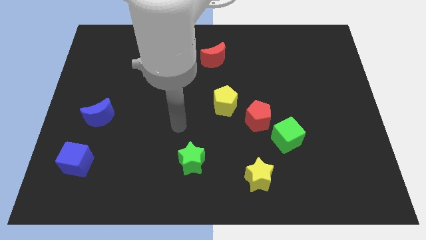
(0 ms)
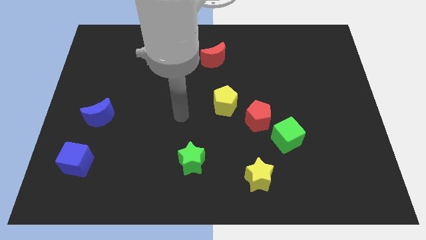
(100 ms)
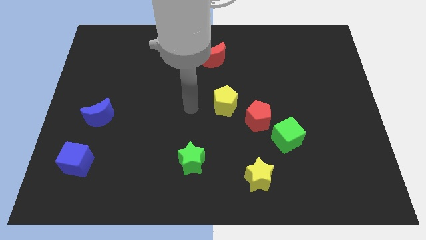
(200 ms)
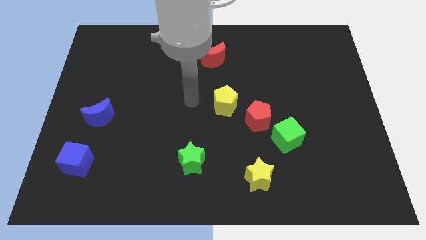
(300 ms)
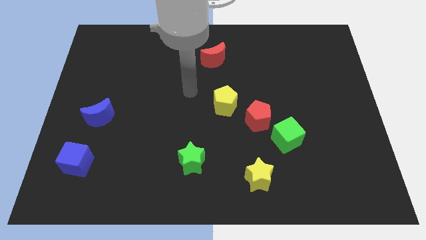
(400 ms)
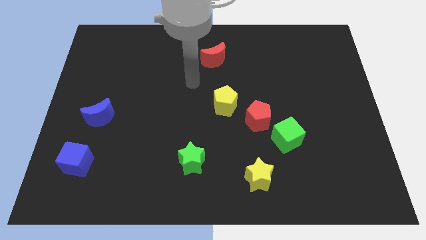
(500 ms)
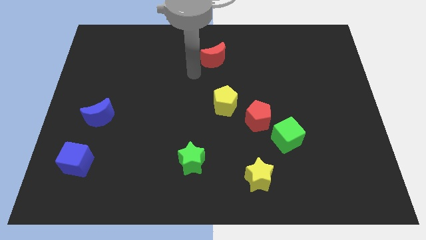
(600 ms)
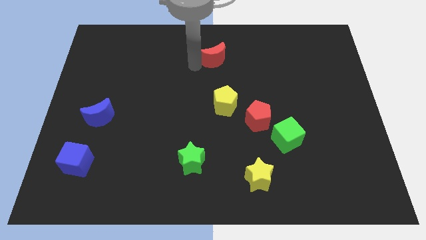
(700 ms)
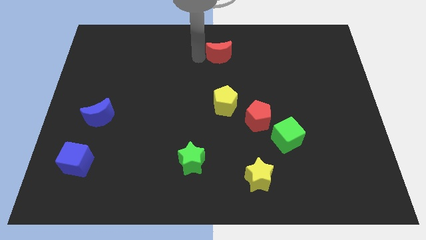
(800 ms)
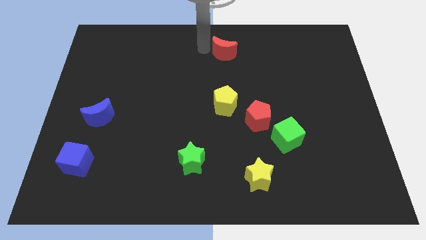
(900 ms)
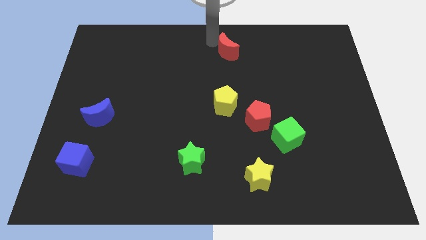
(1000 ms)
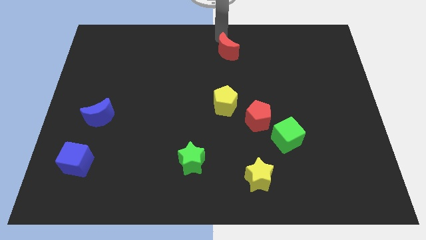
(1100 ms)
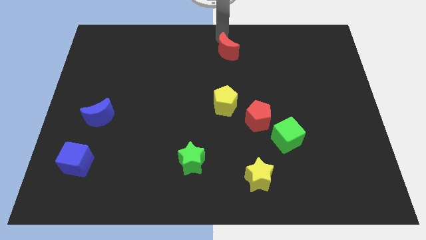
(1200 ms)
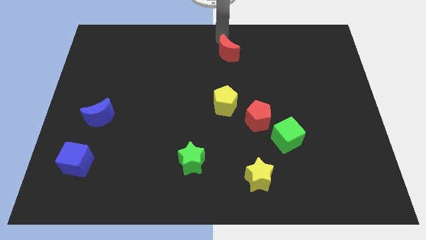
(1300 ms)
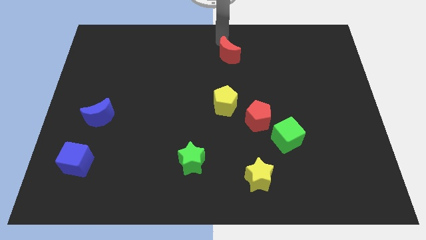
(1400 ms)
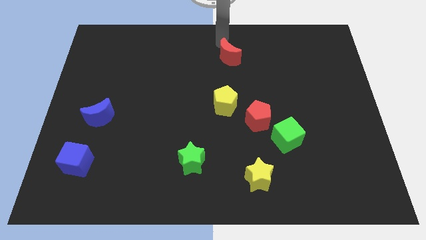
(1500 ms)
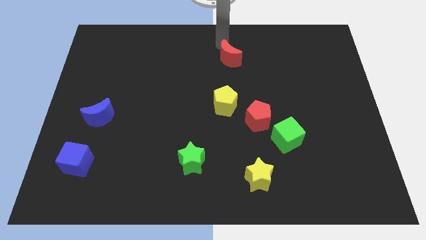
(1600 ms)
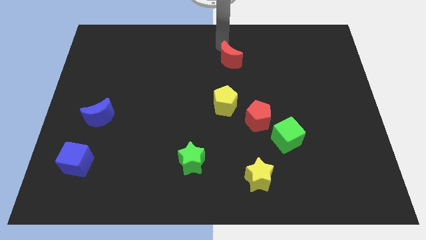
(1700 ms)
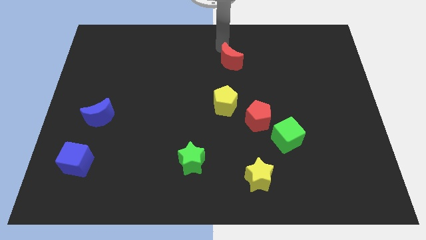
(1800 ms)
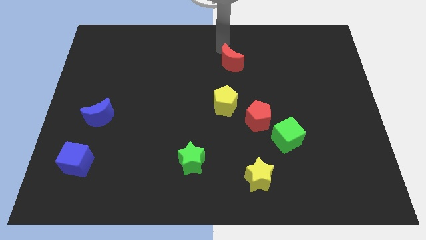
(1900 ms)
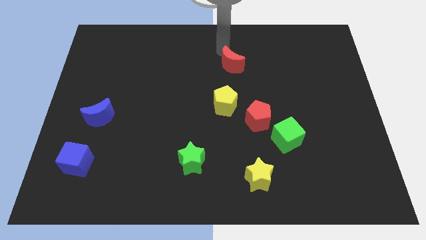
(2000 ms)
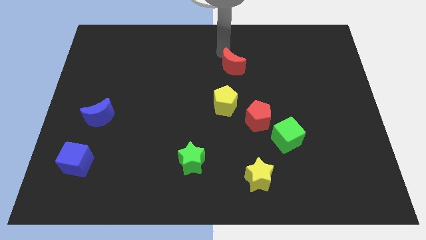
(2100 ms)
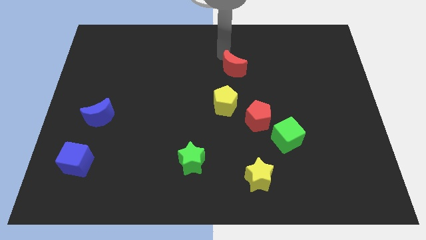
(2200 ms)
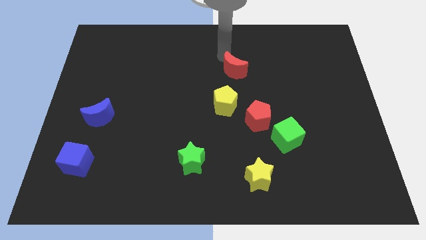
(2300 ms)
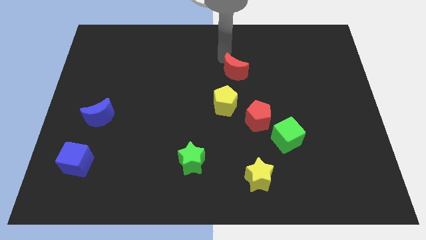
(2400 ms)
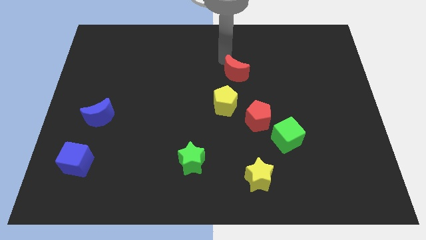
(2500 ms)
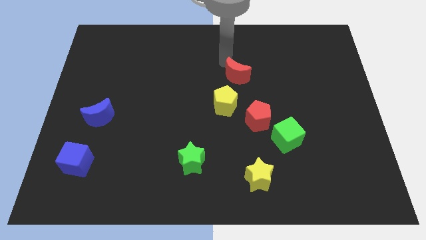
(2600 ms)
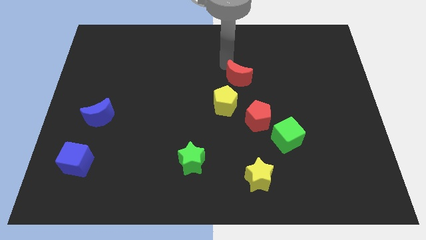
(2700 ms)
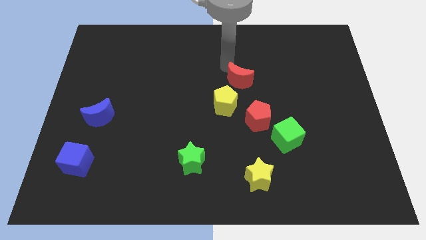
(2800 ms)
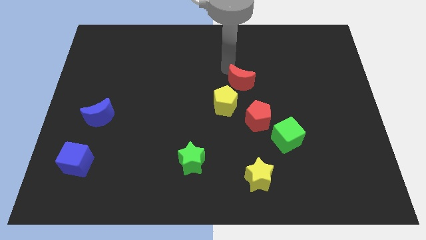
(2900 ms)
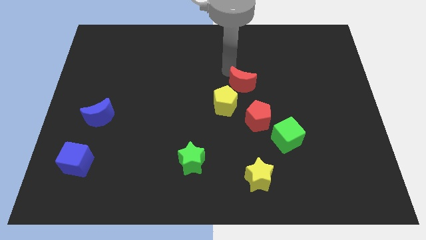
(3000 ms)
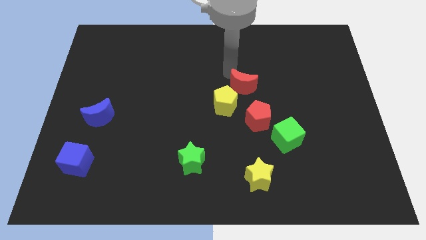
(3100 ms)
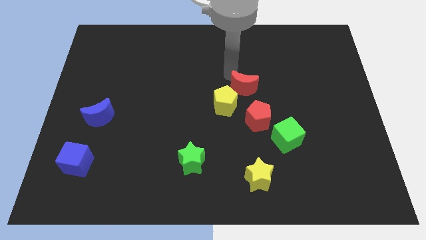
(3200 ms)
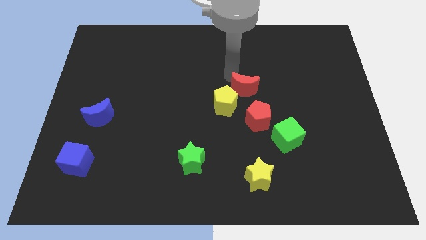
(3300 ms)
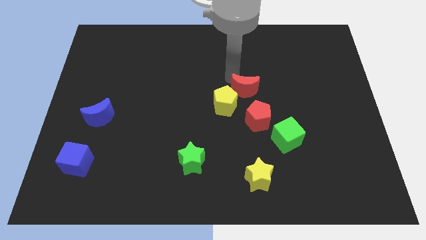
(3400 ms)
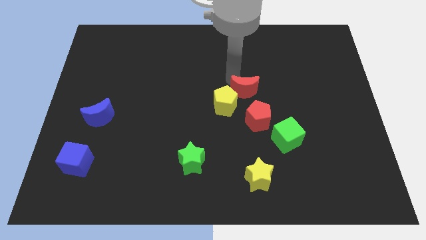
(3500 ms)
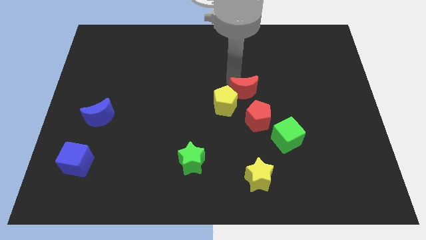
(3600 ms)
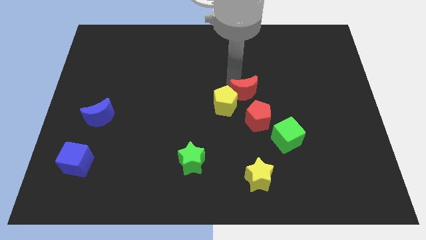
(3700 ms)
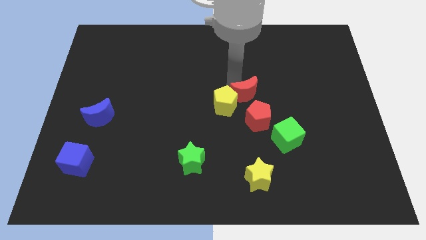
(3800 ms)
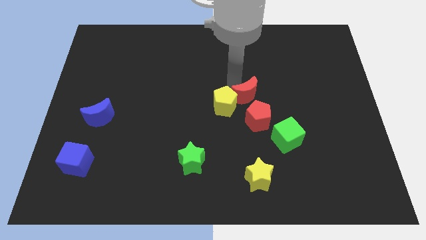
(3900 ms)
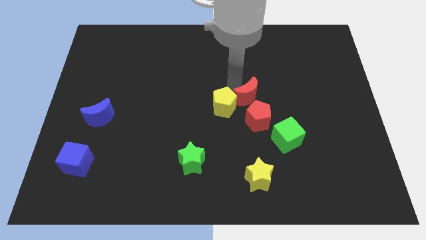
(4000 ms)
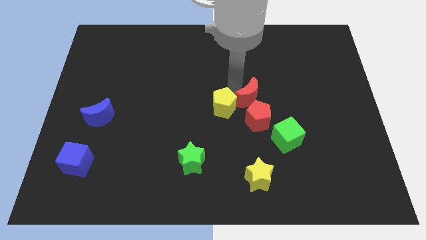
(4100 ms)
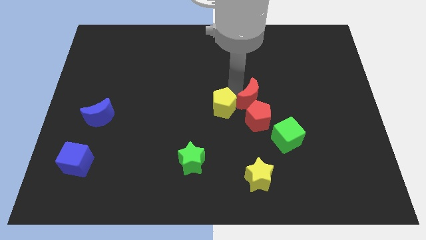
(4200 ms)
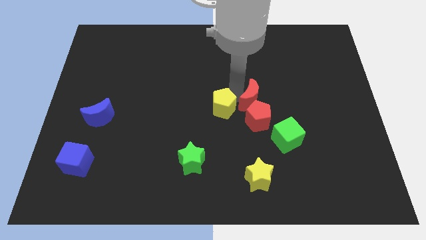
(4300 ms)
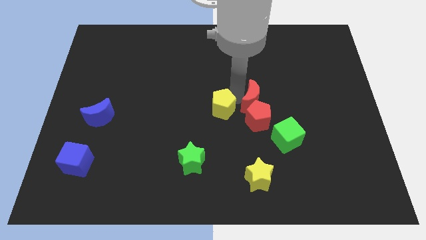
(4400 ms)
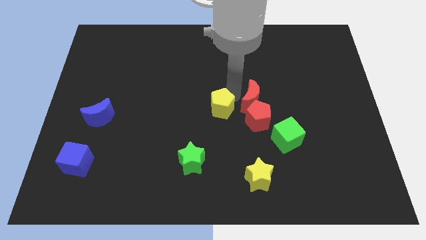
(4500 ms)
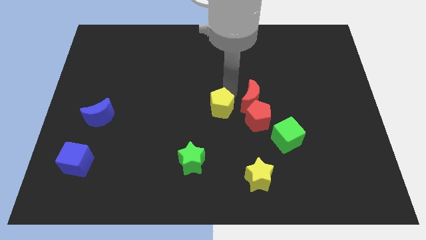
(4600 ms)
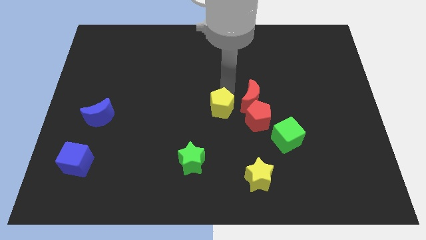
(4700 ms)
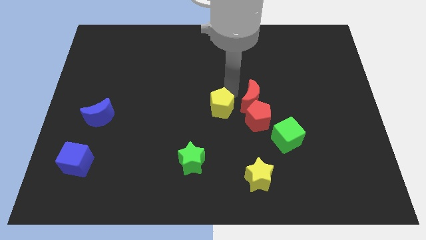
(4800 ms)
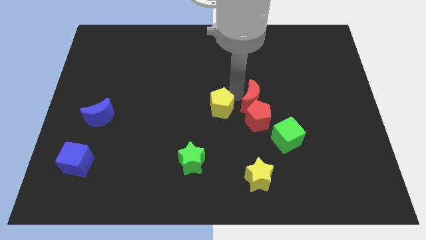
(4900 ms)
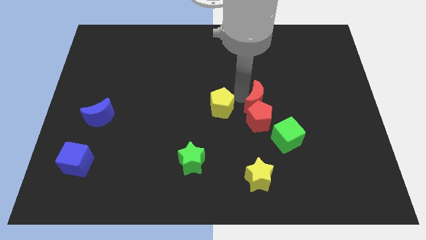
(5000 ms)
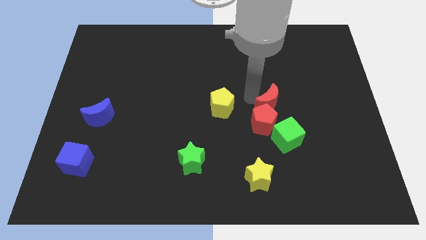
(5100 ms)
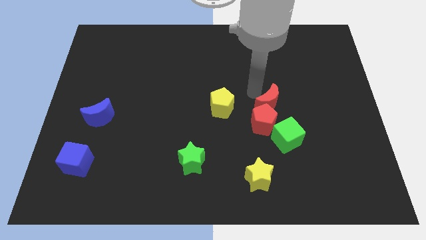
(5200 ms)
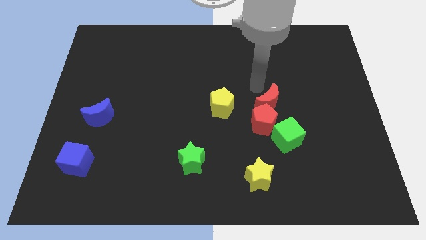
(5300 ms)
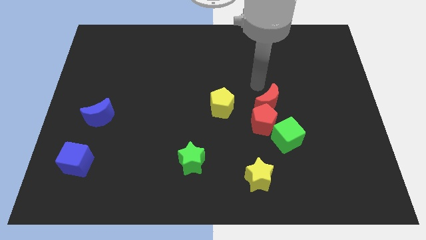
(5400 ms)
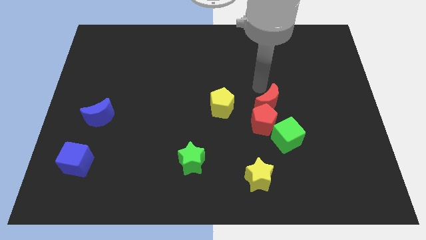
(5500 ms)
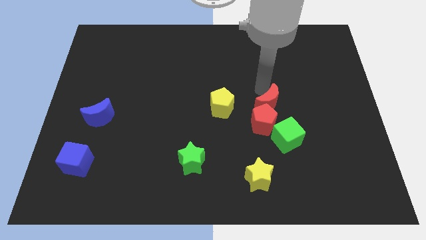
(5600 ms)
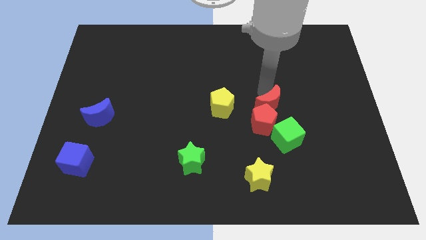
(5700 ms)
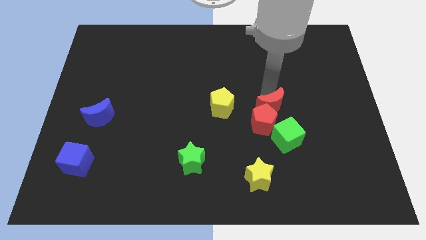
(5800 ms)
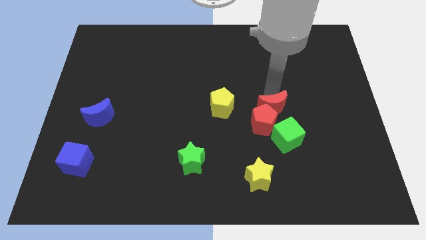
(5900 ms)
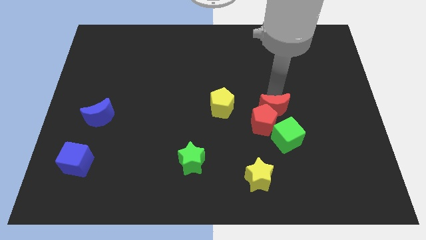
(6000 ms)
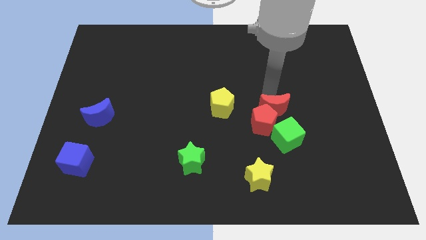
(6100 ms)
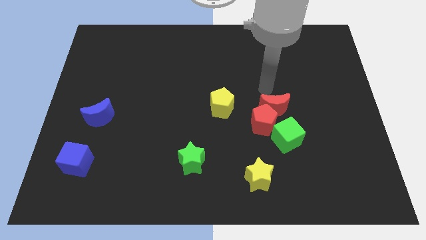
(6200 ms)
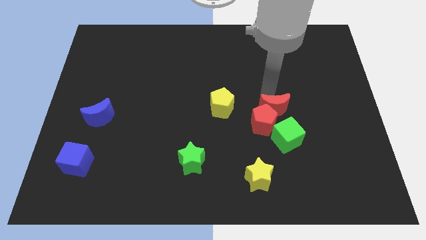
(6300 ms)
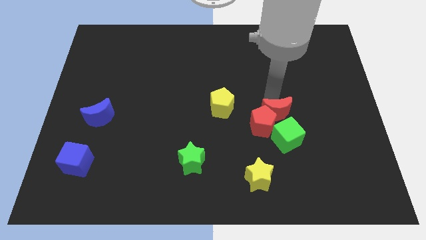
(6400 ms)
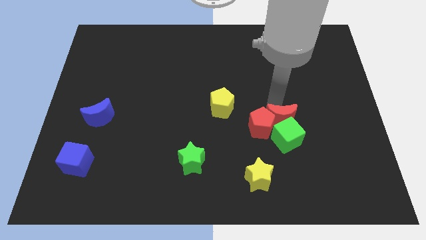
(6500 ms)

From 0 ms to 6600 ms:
push the red moon next to the green cube

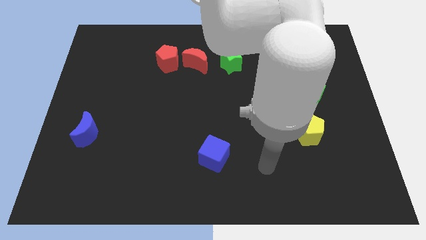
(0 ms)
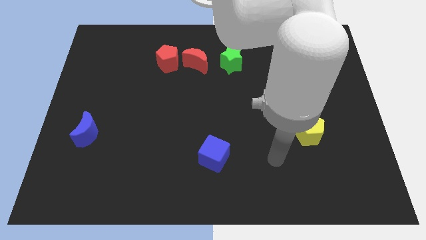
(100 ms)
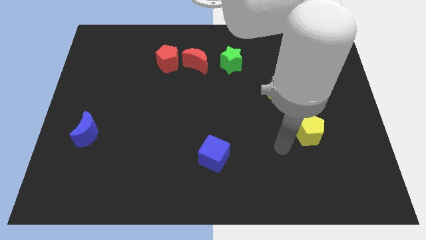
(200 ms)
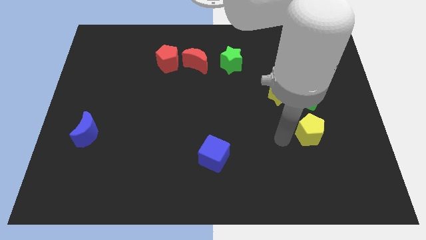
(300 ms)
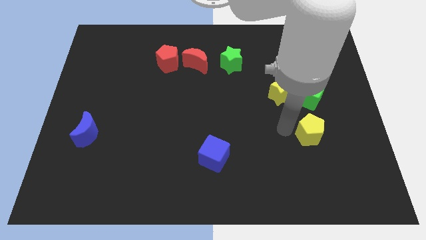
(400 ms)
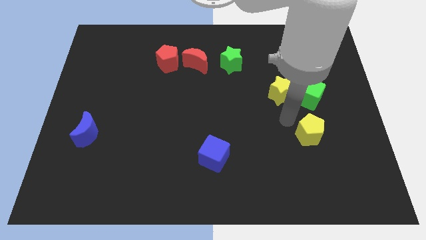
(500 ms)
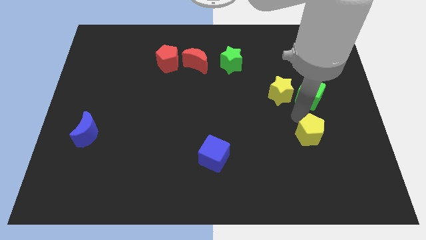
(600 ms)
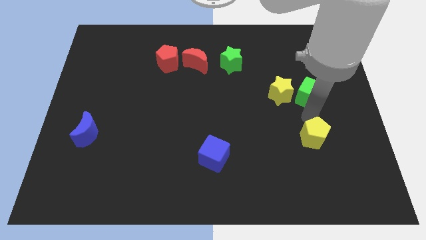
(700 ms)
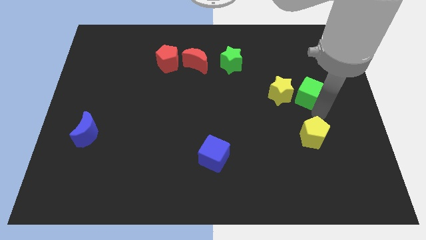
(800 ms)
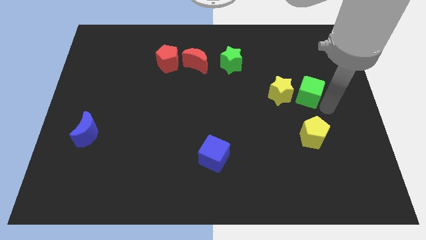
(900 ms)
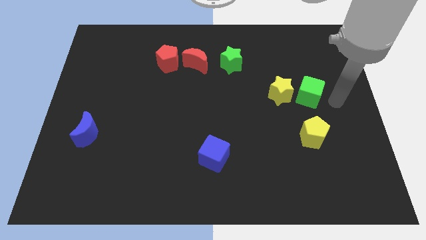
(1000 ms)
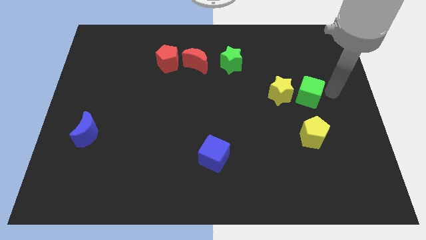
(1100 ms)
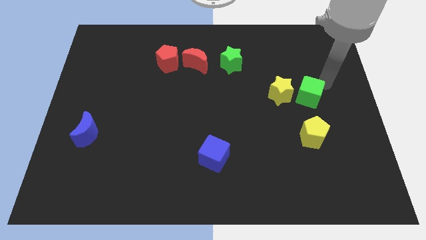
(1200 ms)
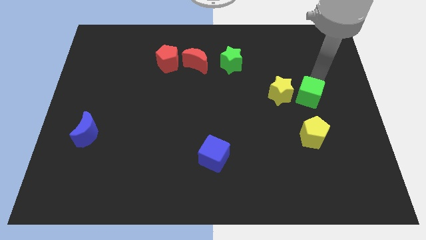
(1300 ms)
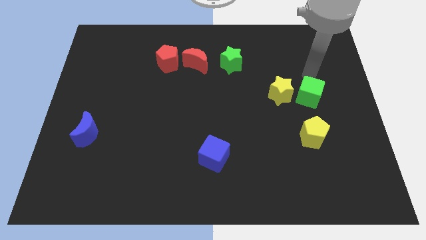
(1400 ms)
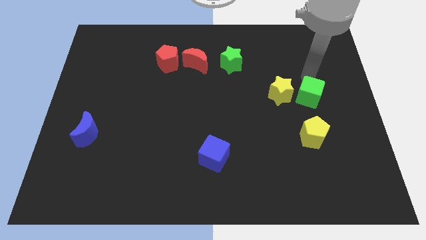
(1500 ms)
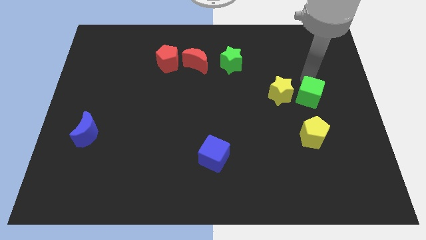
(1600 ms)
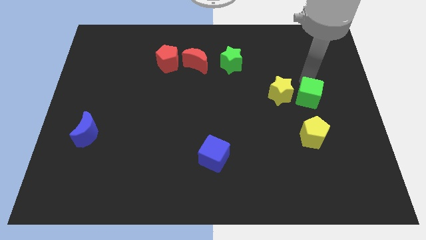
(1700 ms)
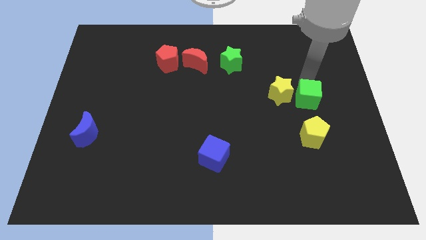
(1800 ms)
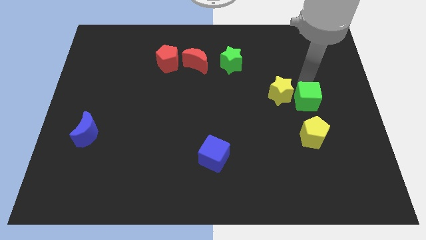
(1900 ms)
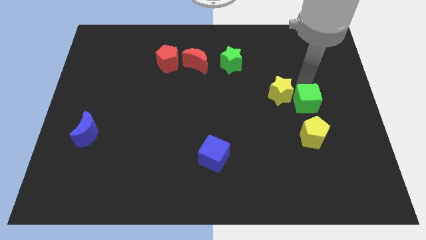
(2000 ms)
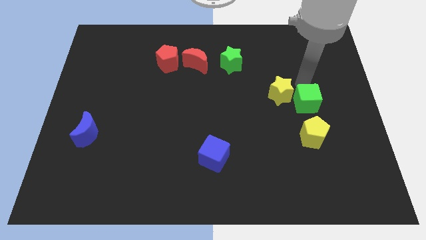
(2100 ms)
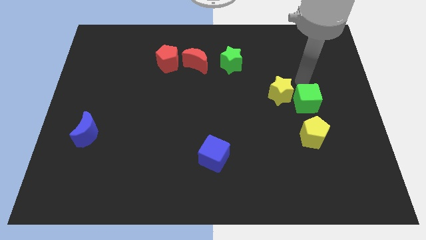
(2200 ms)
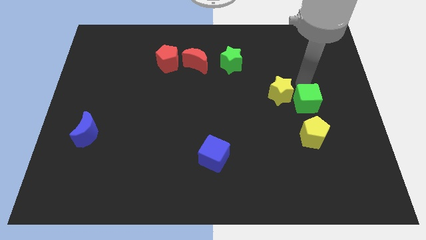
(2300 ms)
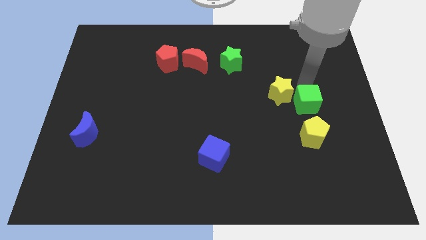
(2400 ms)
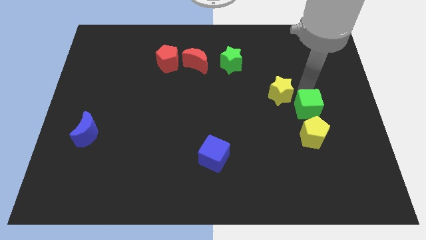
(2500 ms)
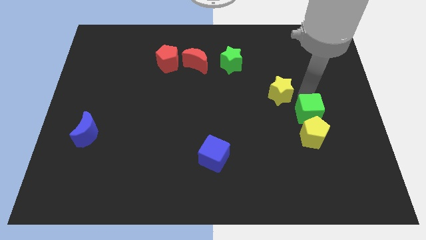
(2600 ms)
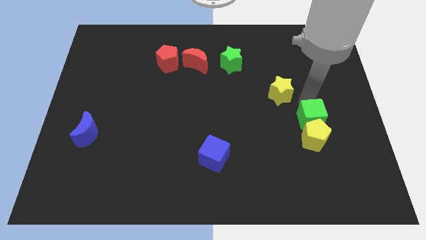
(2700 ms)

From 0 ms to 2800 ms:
slide the green cube next to the yellow pentagon
